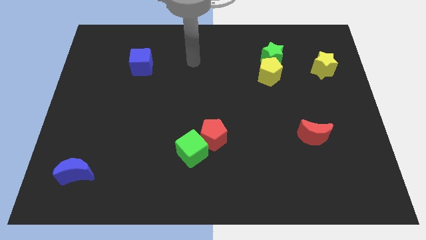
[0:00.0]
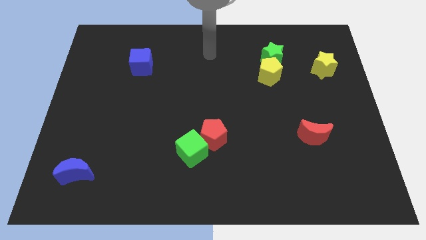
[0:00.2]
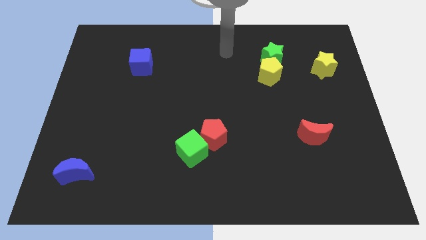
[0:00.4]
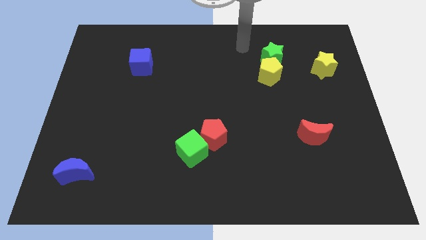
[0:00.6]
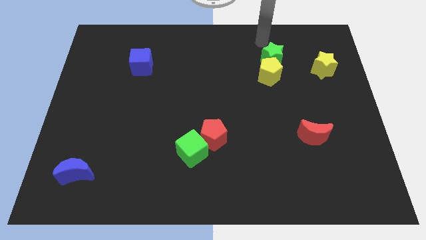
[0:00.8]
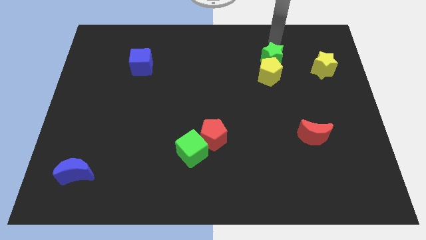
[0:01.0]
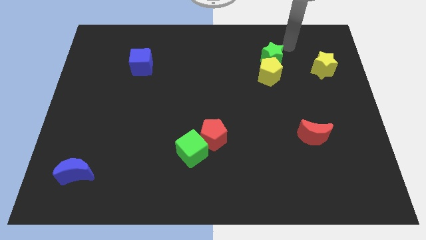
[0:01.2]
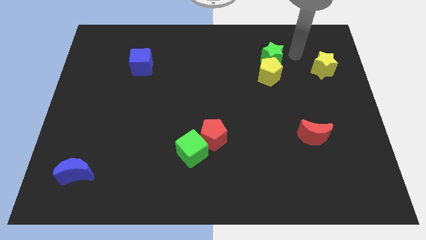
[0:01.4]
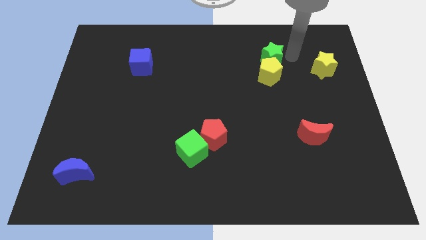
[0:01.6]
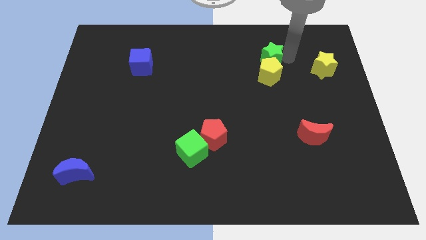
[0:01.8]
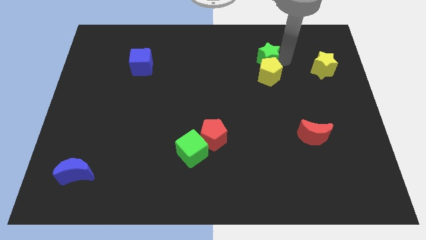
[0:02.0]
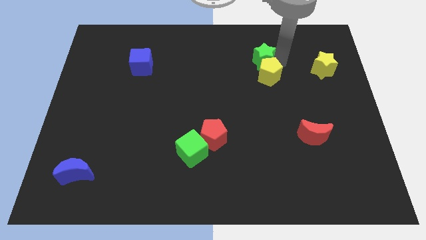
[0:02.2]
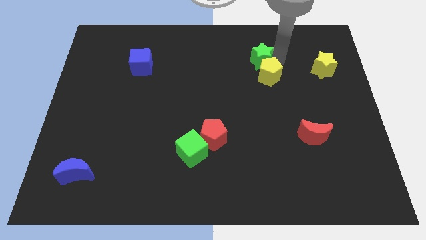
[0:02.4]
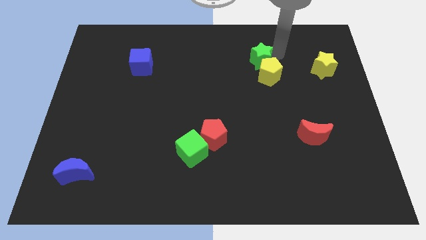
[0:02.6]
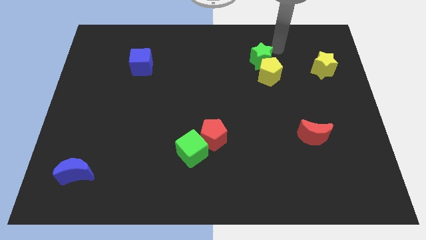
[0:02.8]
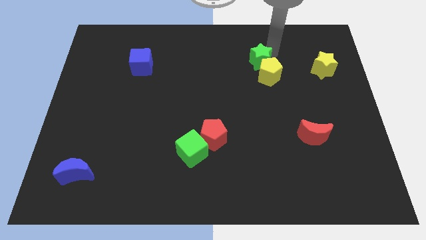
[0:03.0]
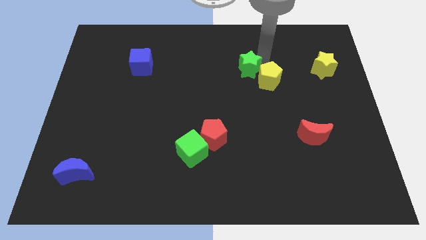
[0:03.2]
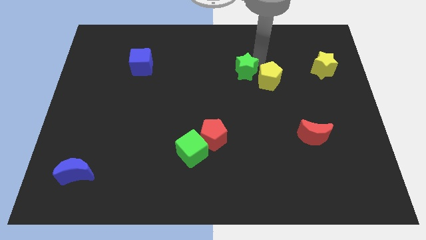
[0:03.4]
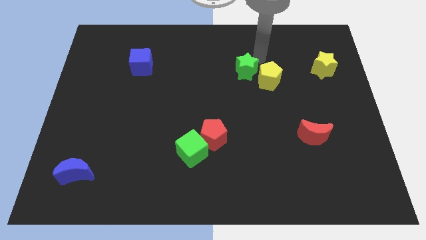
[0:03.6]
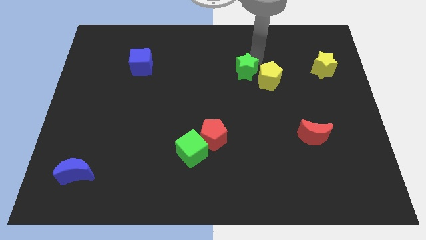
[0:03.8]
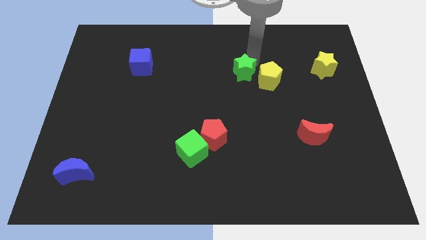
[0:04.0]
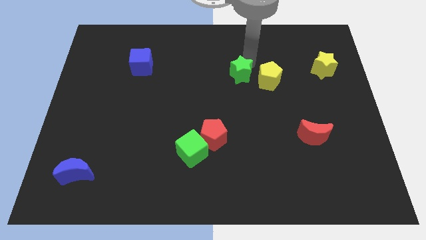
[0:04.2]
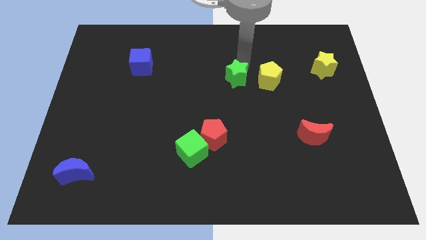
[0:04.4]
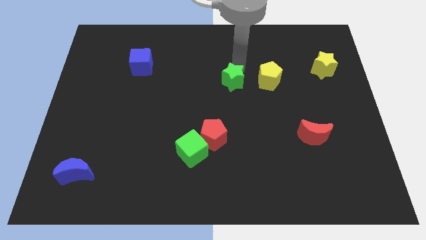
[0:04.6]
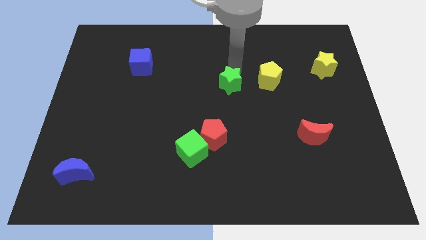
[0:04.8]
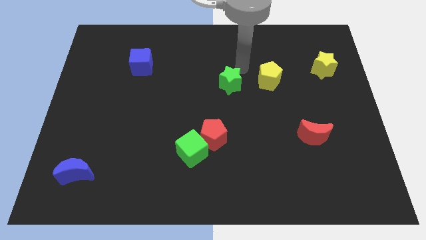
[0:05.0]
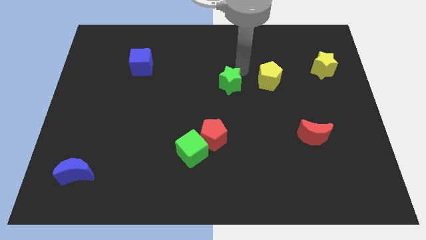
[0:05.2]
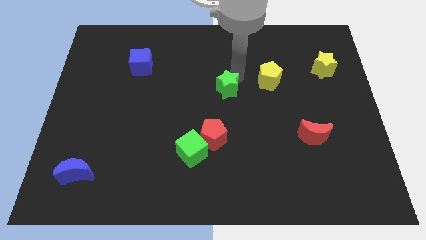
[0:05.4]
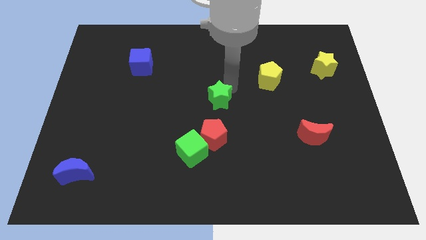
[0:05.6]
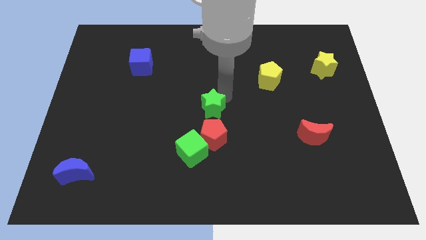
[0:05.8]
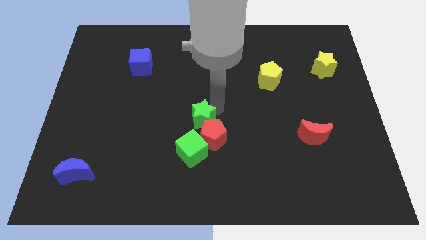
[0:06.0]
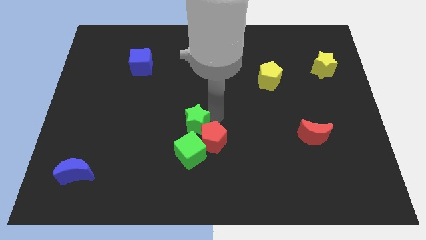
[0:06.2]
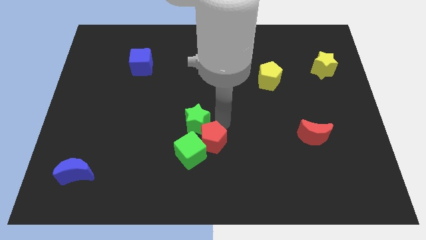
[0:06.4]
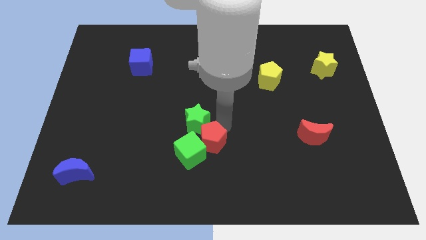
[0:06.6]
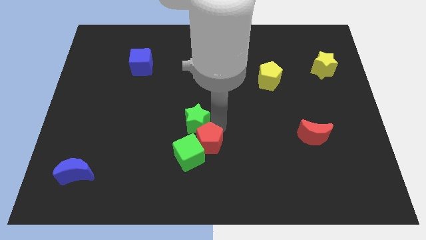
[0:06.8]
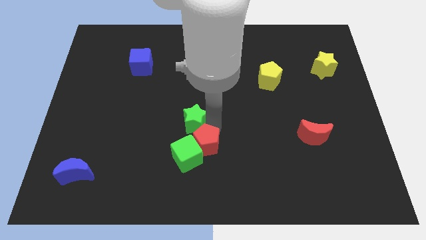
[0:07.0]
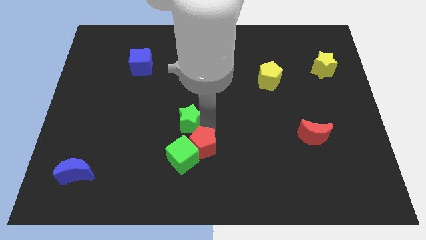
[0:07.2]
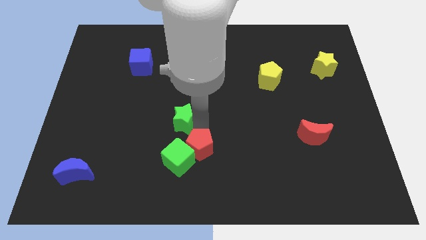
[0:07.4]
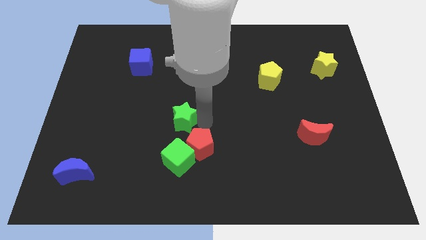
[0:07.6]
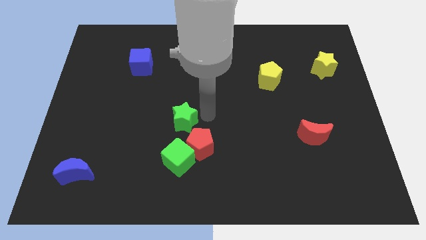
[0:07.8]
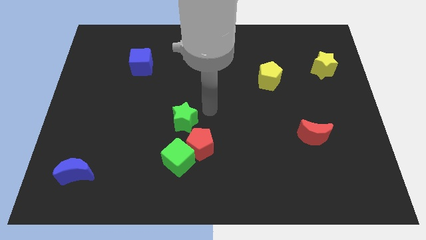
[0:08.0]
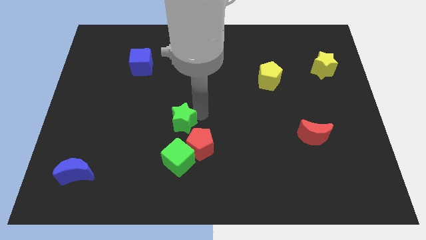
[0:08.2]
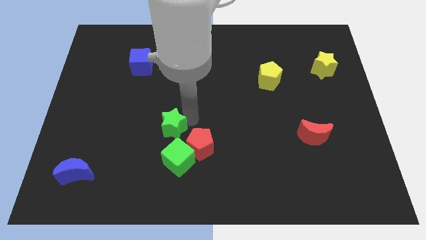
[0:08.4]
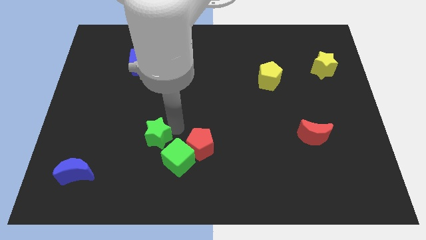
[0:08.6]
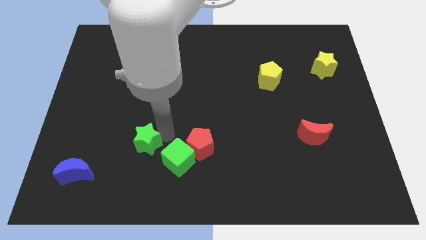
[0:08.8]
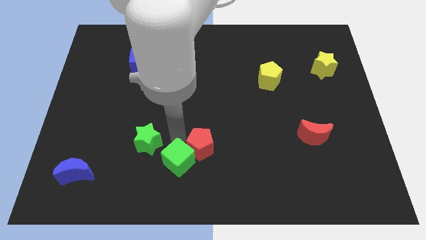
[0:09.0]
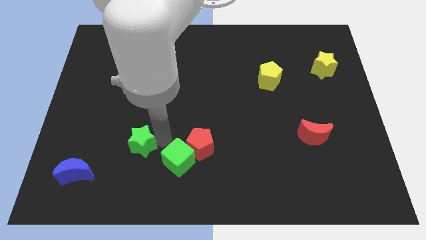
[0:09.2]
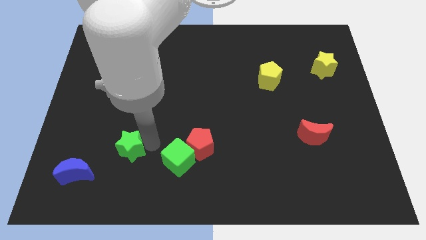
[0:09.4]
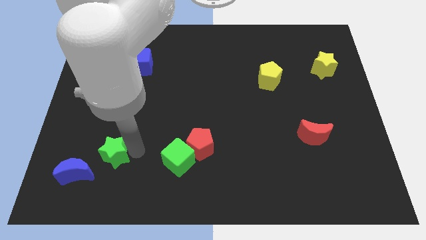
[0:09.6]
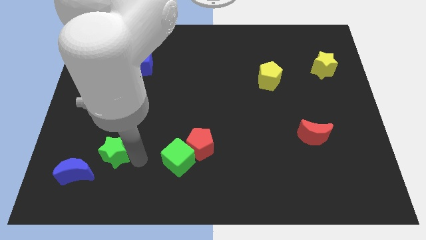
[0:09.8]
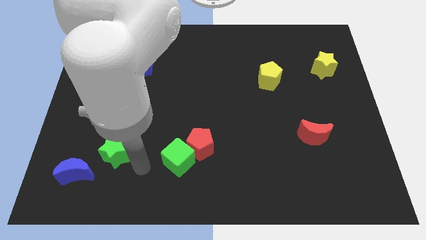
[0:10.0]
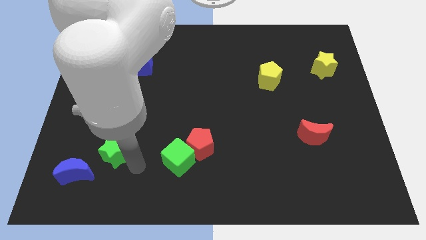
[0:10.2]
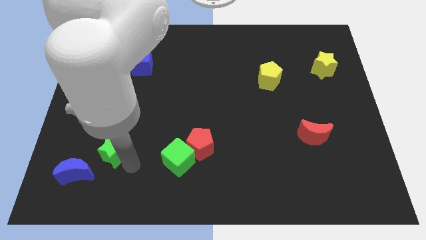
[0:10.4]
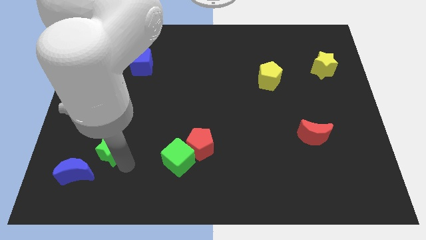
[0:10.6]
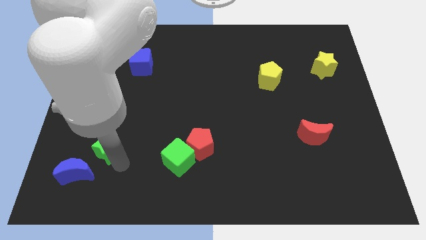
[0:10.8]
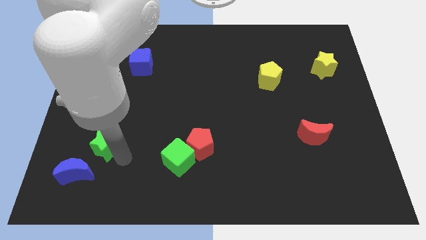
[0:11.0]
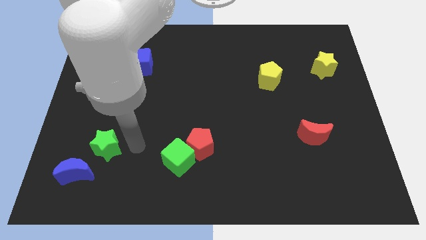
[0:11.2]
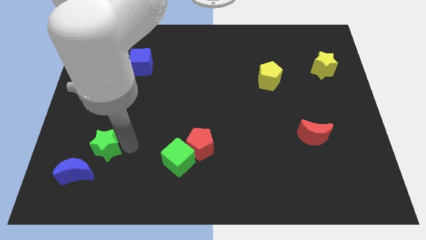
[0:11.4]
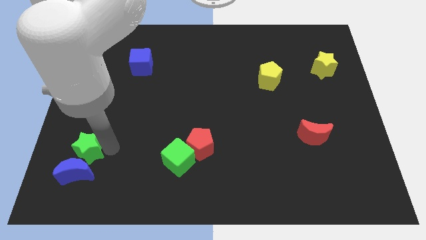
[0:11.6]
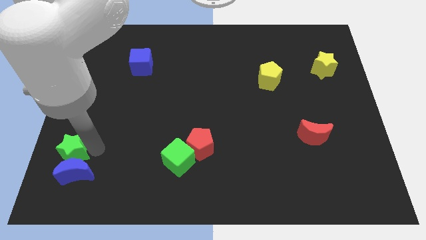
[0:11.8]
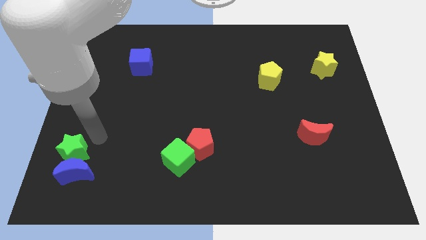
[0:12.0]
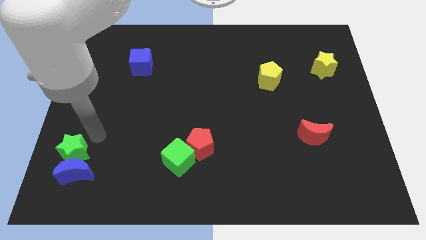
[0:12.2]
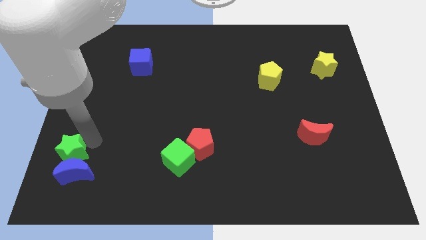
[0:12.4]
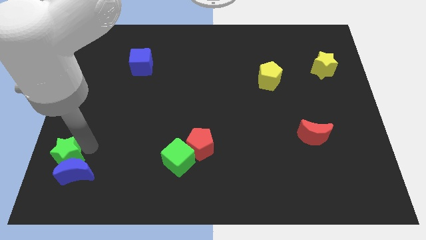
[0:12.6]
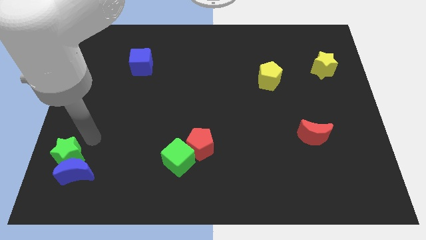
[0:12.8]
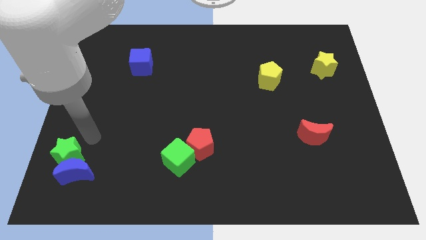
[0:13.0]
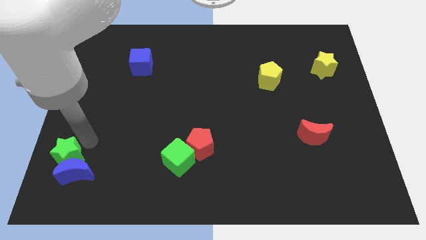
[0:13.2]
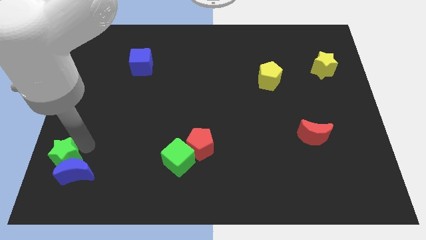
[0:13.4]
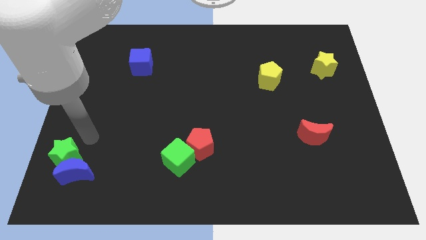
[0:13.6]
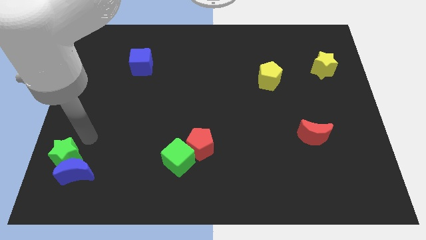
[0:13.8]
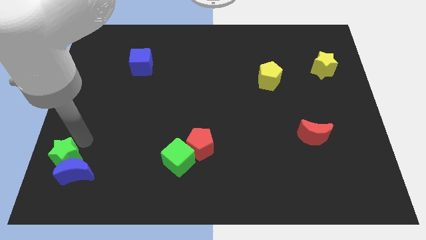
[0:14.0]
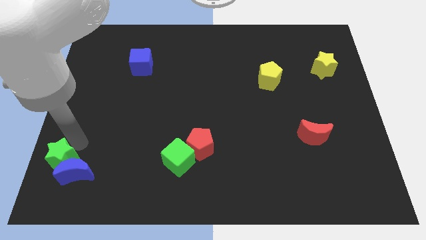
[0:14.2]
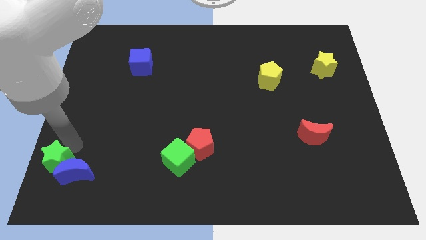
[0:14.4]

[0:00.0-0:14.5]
push the green star to the lower left corner

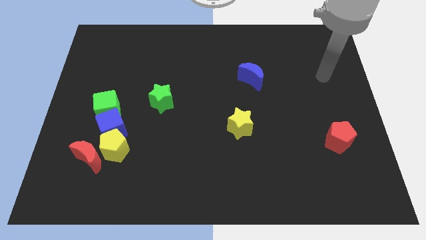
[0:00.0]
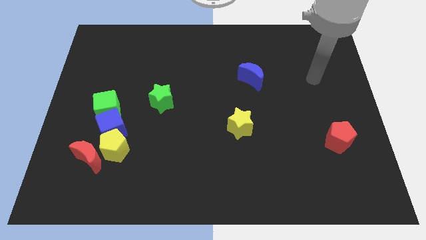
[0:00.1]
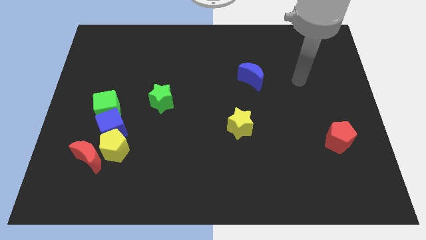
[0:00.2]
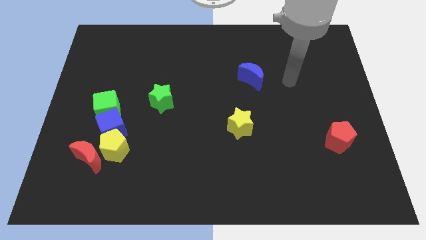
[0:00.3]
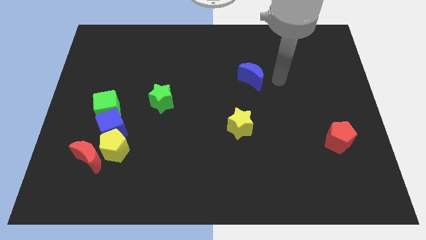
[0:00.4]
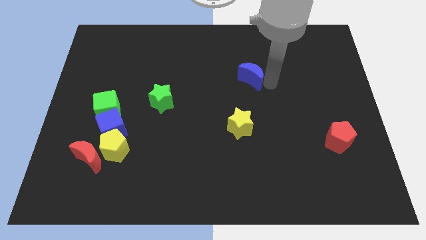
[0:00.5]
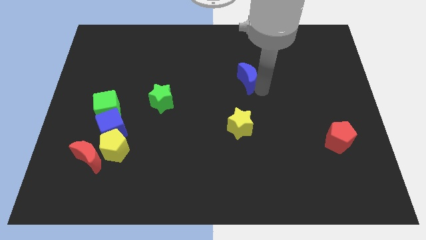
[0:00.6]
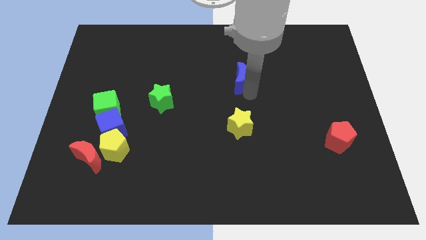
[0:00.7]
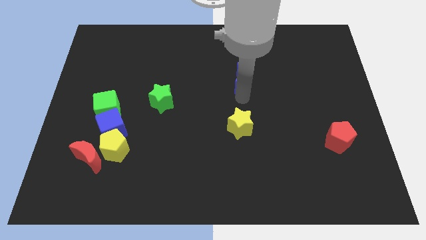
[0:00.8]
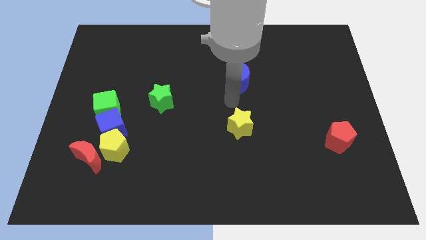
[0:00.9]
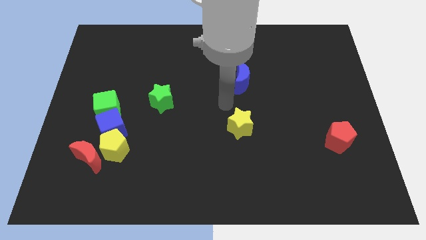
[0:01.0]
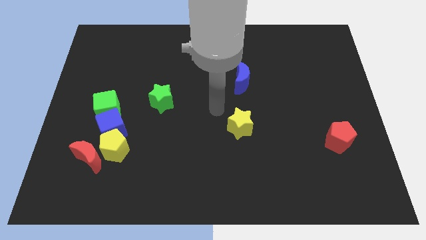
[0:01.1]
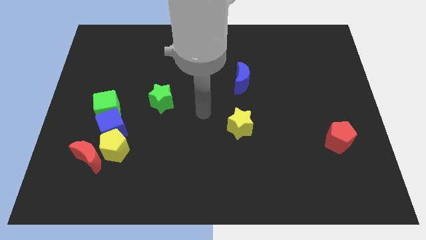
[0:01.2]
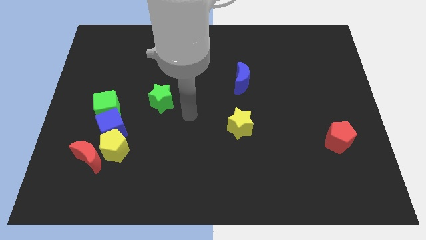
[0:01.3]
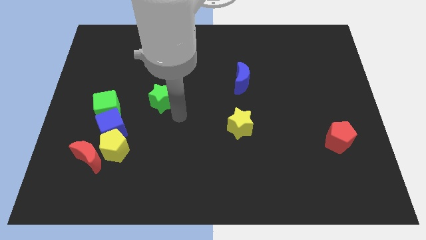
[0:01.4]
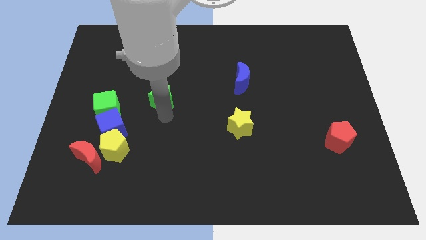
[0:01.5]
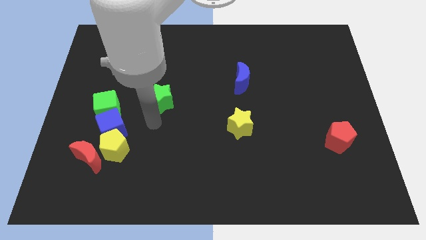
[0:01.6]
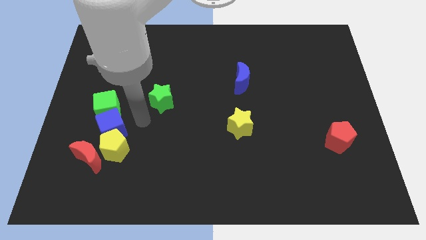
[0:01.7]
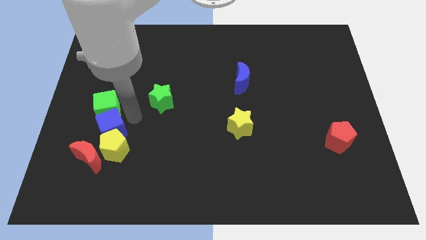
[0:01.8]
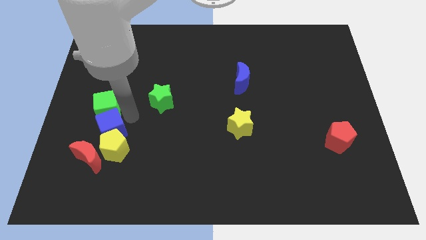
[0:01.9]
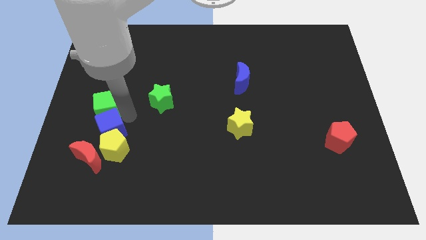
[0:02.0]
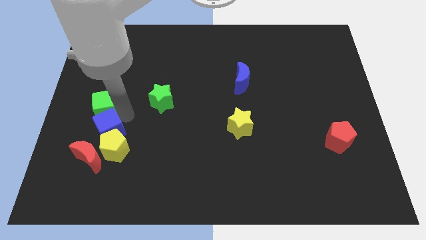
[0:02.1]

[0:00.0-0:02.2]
move the green cube to the left side
